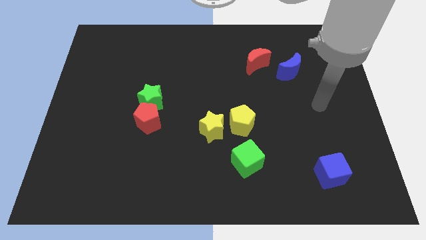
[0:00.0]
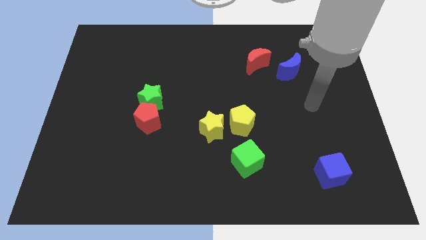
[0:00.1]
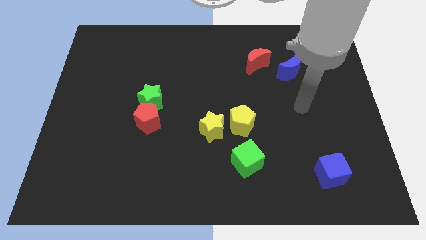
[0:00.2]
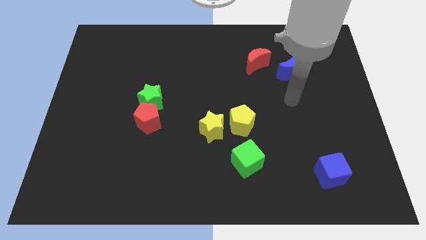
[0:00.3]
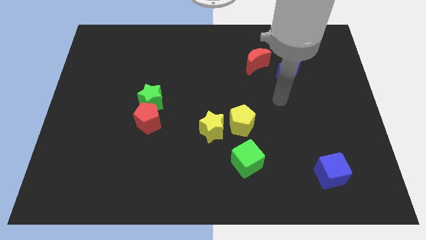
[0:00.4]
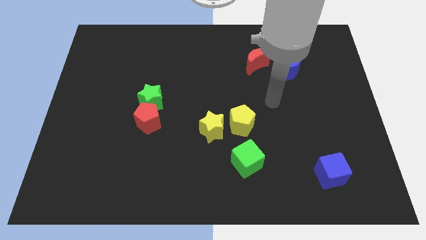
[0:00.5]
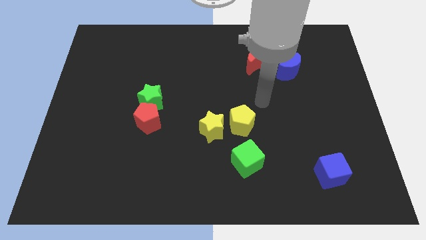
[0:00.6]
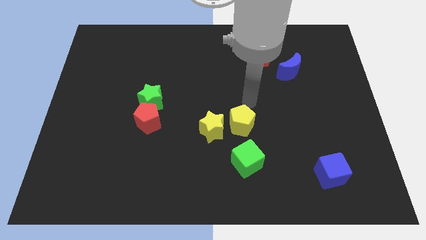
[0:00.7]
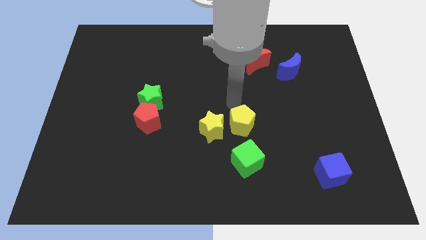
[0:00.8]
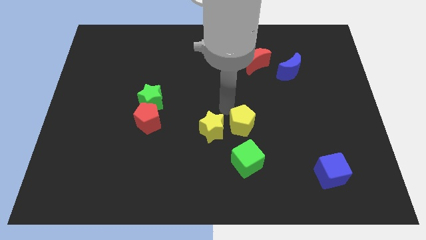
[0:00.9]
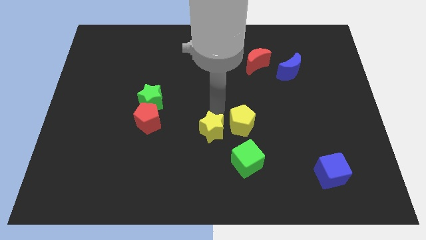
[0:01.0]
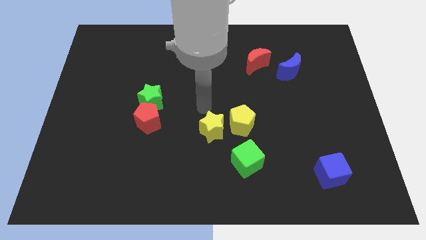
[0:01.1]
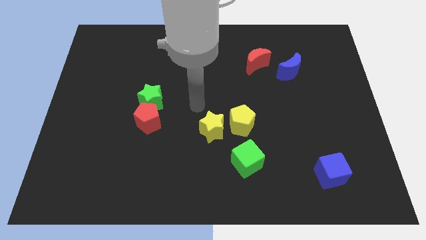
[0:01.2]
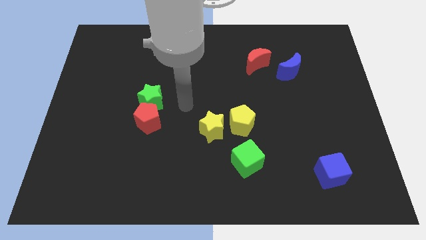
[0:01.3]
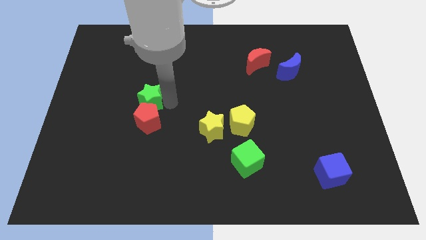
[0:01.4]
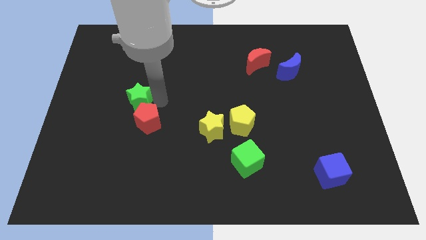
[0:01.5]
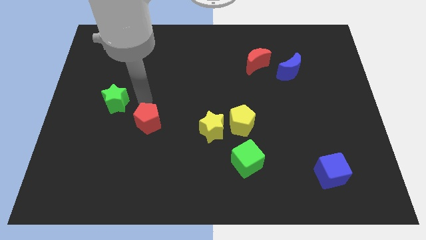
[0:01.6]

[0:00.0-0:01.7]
pull the red pentagon apart from the green star

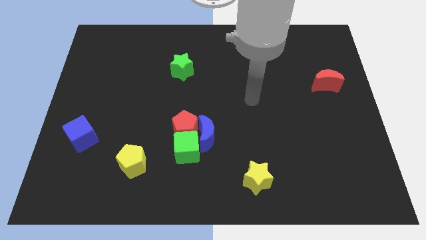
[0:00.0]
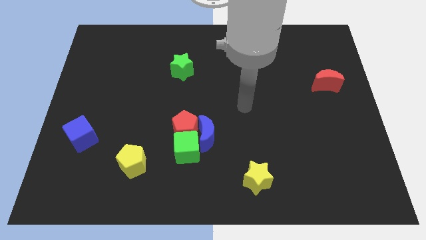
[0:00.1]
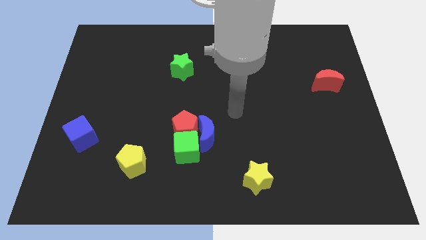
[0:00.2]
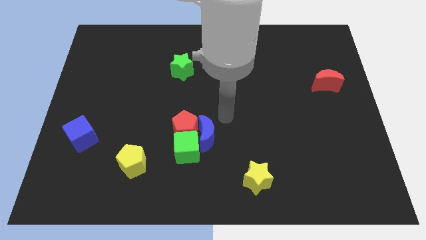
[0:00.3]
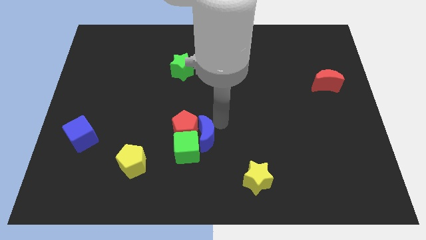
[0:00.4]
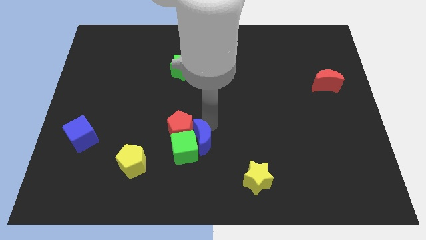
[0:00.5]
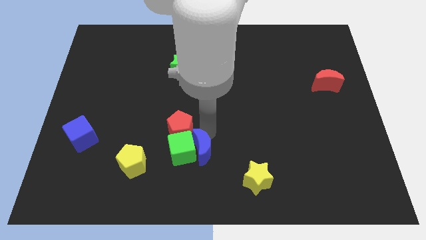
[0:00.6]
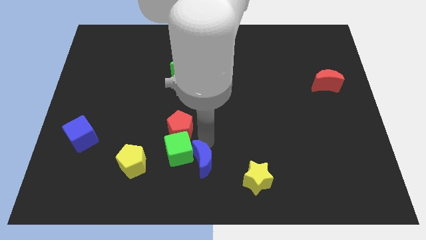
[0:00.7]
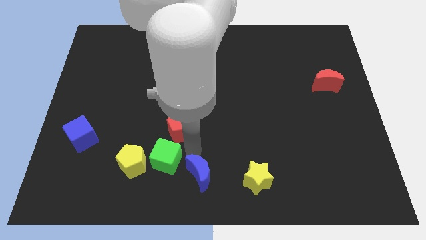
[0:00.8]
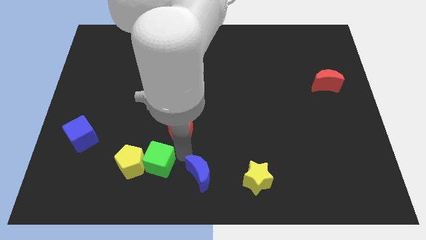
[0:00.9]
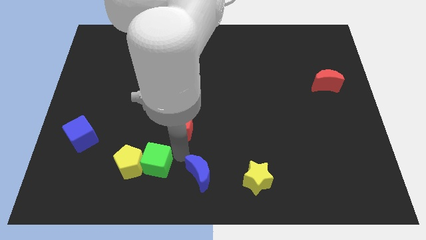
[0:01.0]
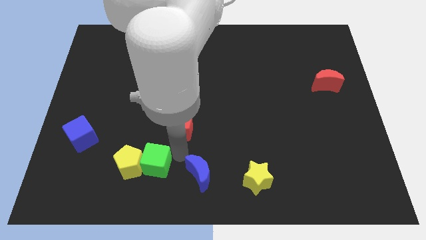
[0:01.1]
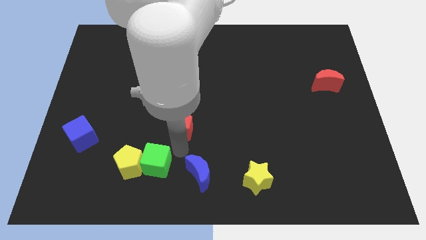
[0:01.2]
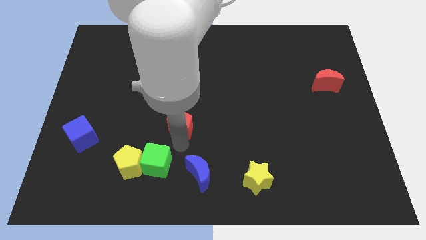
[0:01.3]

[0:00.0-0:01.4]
separate the red pentagon from the blue moon and green cube

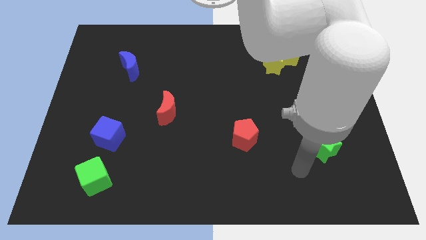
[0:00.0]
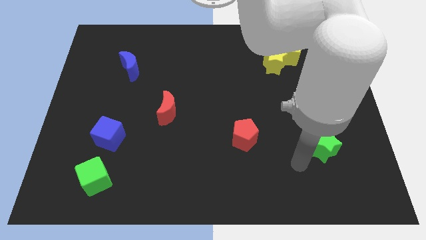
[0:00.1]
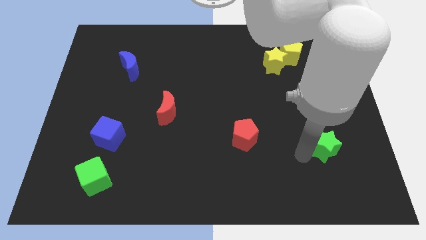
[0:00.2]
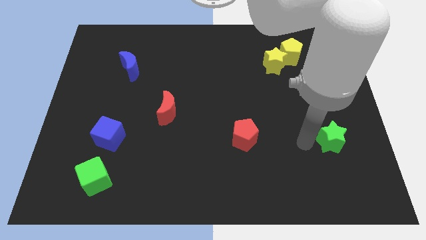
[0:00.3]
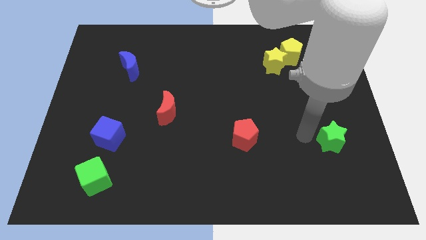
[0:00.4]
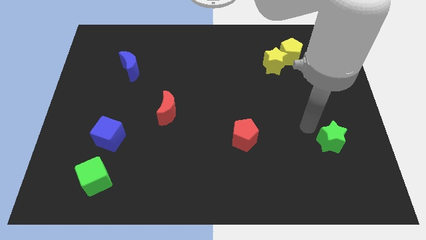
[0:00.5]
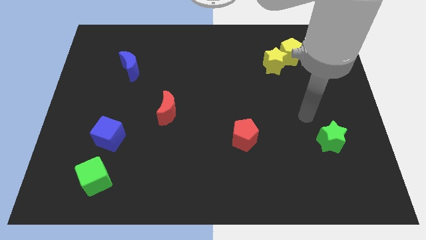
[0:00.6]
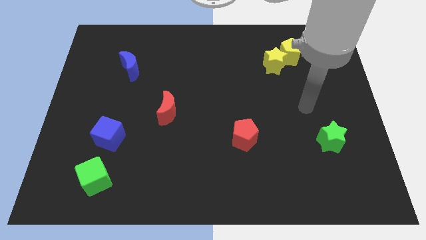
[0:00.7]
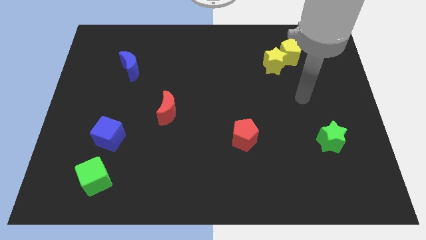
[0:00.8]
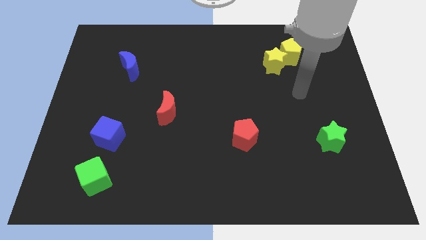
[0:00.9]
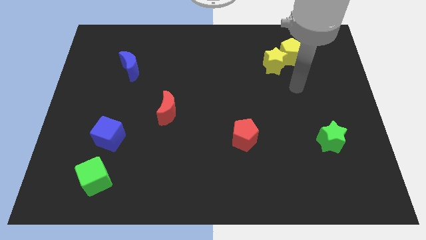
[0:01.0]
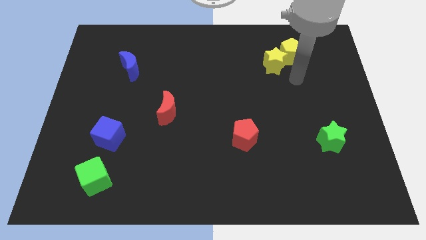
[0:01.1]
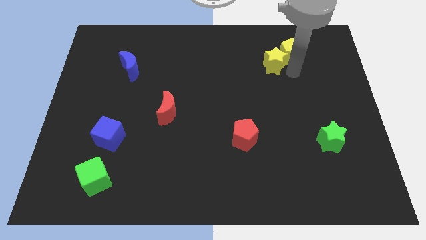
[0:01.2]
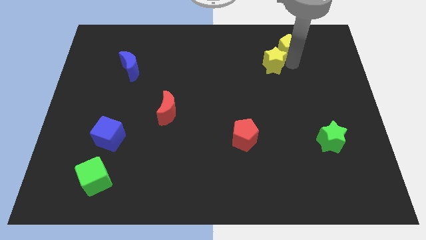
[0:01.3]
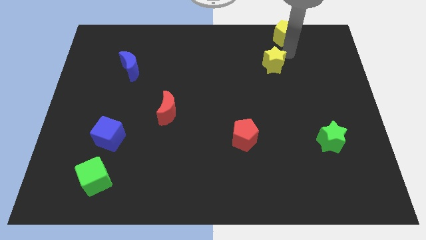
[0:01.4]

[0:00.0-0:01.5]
pull the yellow star apart from the yellow pentagon

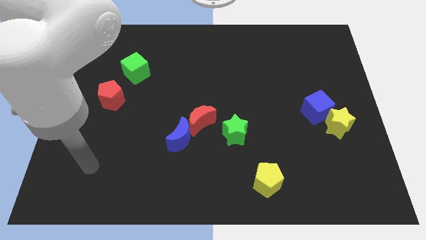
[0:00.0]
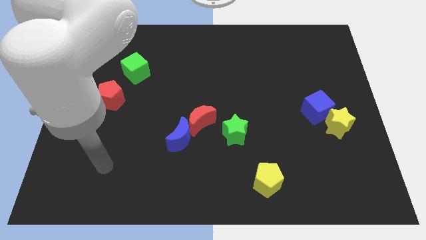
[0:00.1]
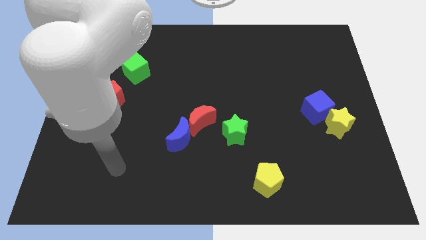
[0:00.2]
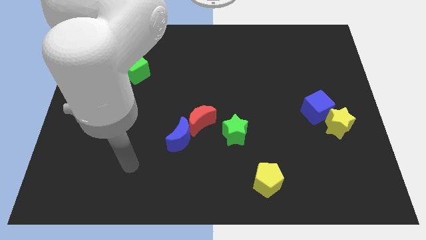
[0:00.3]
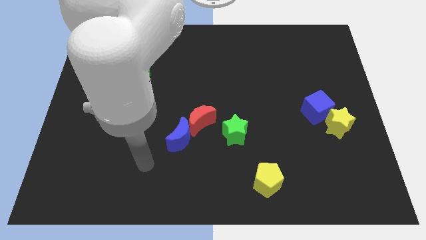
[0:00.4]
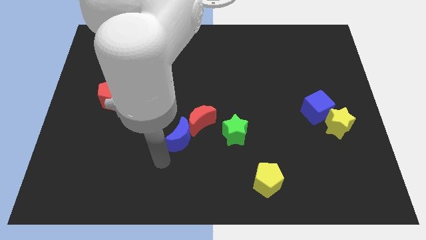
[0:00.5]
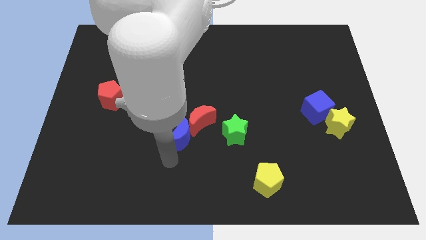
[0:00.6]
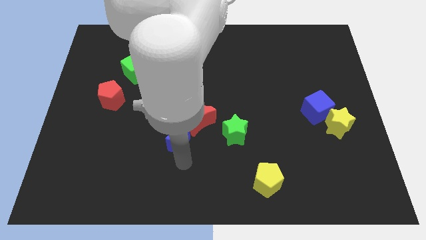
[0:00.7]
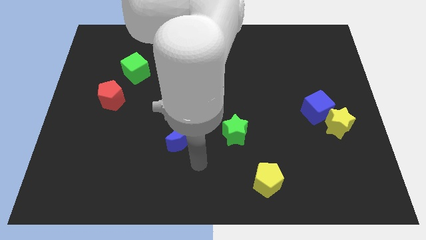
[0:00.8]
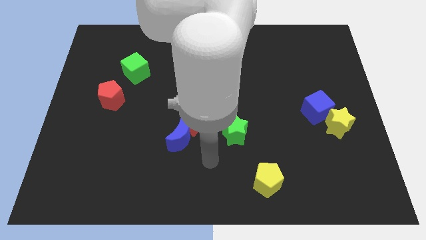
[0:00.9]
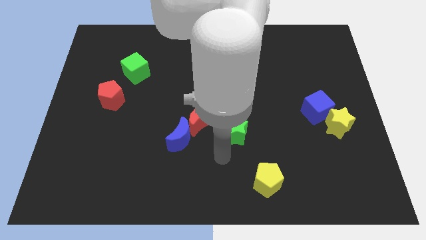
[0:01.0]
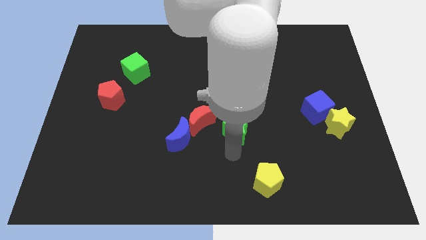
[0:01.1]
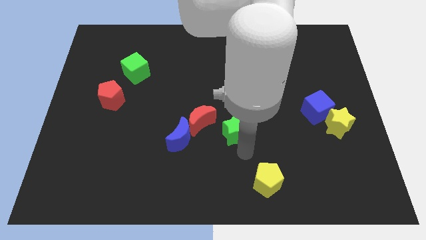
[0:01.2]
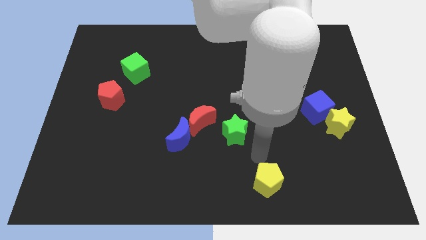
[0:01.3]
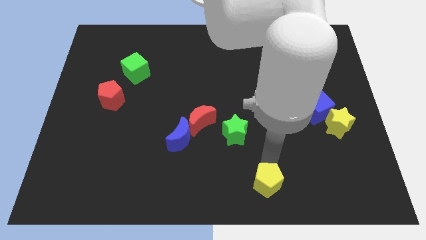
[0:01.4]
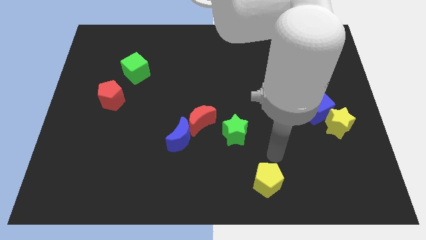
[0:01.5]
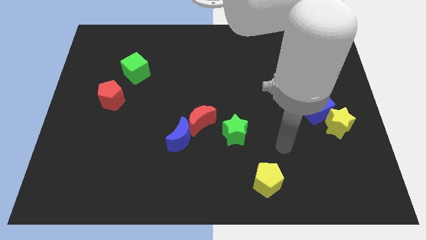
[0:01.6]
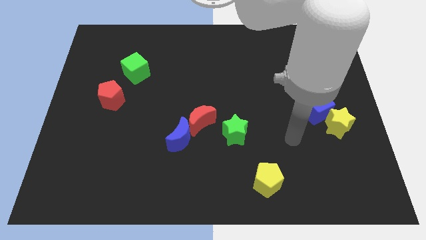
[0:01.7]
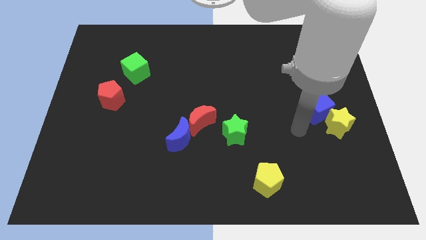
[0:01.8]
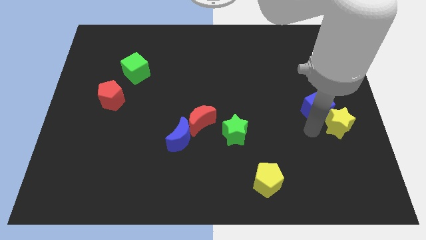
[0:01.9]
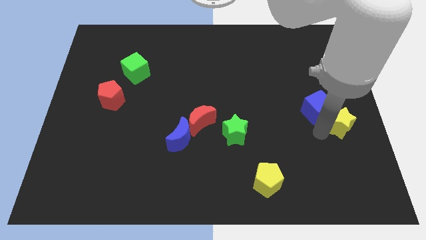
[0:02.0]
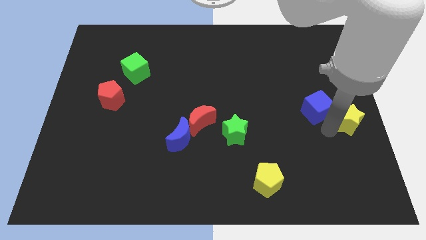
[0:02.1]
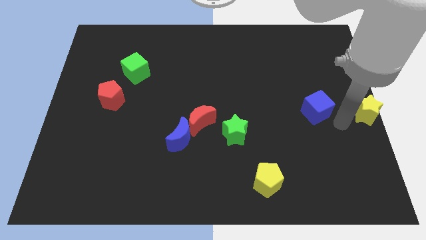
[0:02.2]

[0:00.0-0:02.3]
move the blue cube away from the yellow star

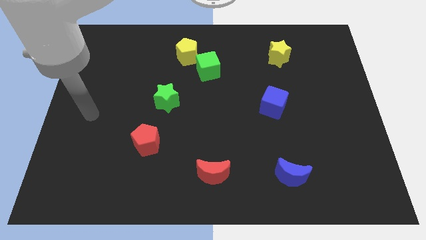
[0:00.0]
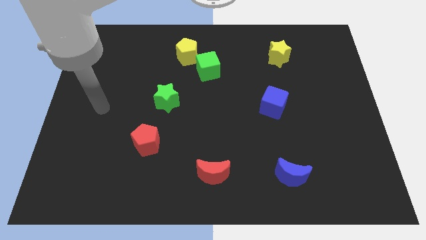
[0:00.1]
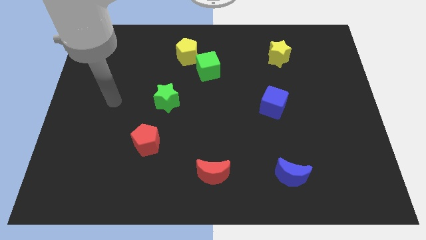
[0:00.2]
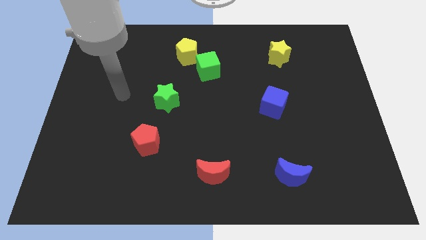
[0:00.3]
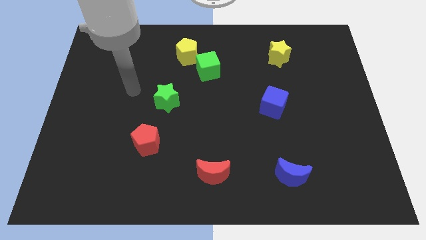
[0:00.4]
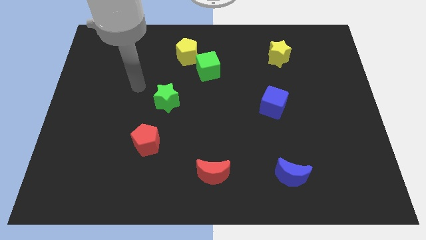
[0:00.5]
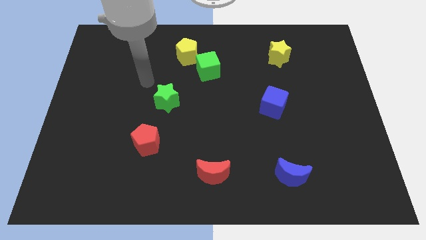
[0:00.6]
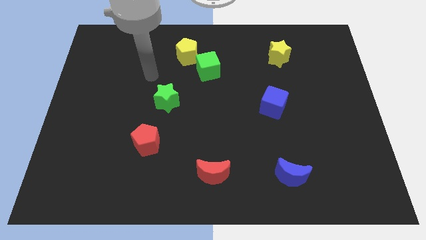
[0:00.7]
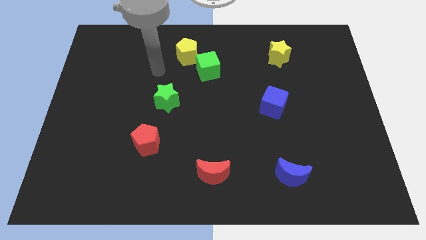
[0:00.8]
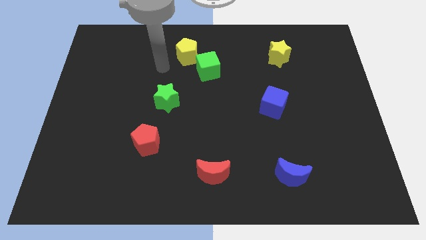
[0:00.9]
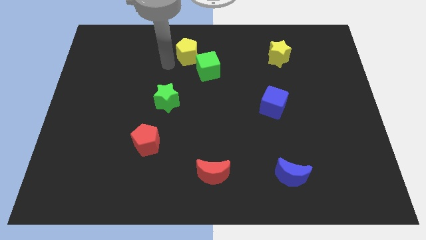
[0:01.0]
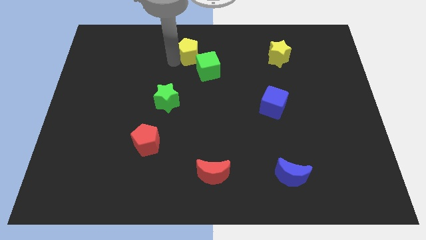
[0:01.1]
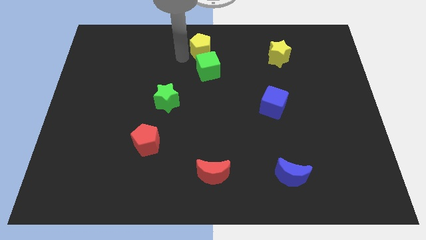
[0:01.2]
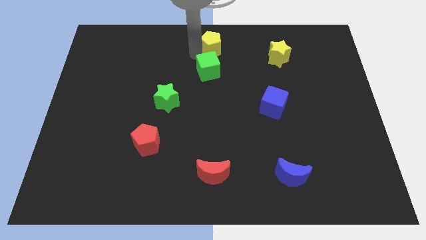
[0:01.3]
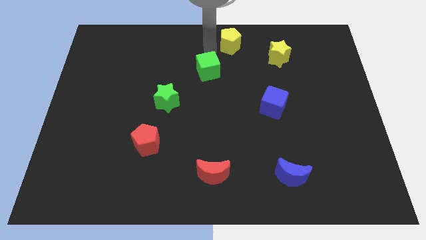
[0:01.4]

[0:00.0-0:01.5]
move the green cube away from the yellow pentagon

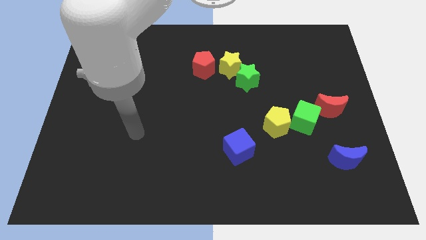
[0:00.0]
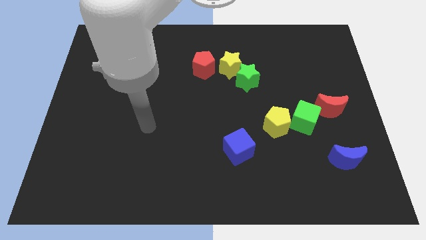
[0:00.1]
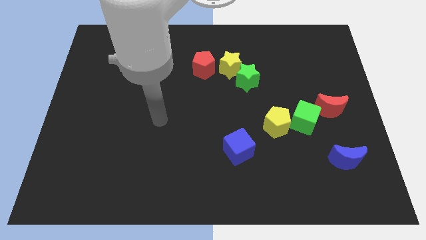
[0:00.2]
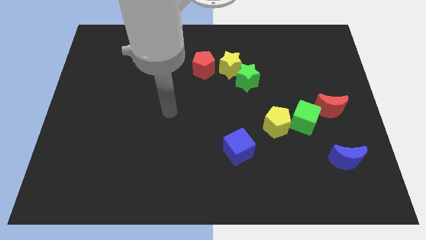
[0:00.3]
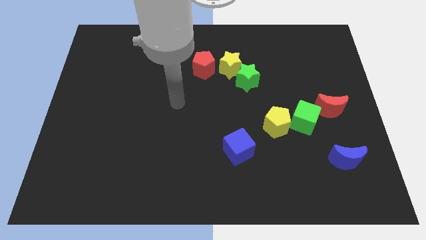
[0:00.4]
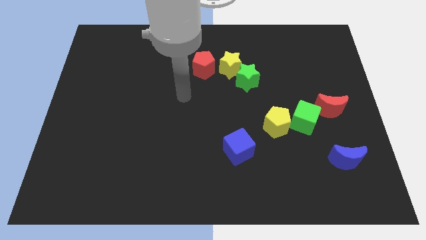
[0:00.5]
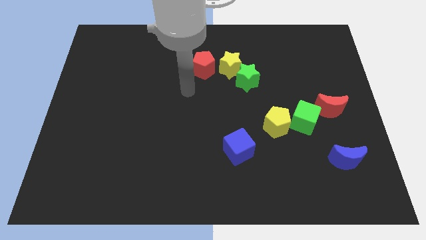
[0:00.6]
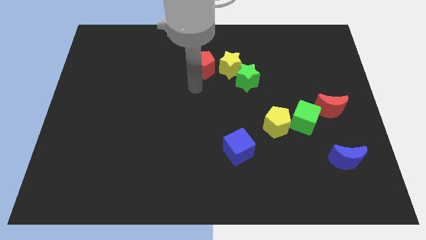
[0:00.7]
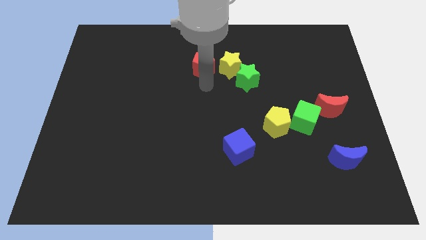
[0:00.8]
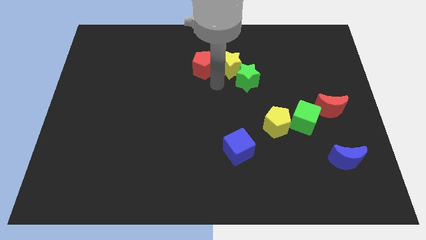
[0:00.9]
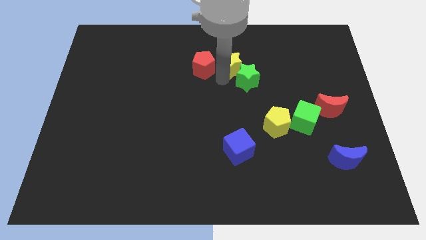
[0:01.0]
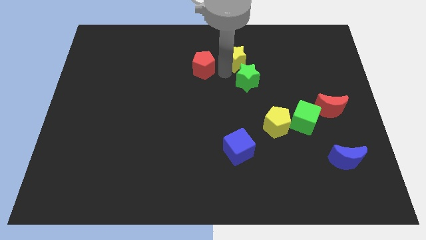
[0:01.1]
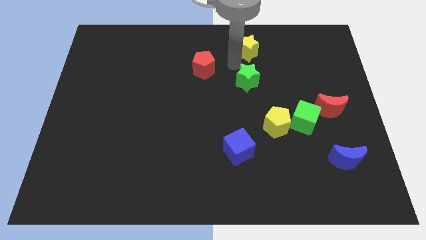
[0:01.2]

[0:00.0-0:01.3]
pull the green star apart from the yellow star
